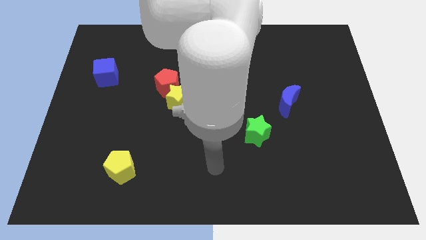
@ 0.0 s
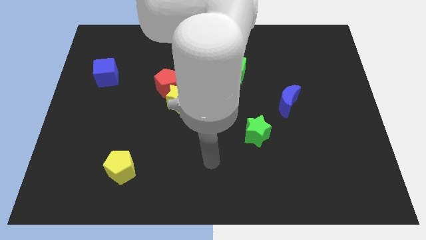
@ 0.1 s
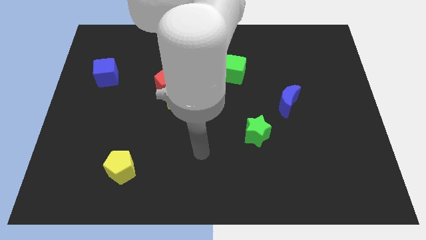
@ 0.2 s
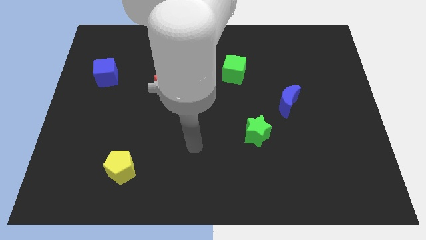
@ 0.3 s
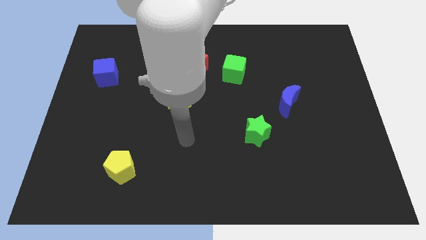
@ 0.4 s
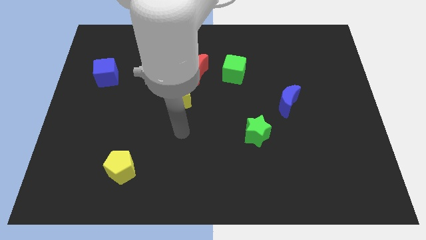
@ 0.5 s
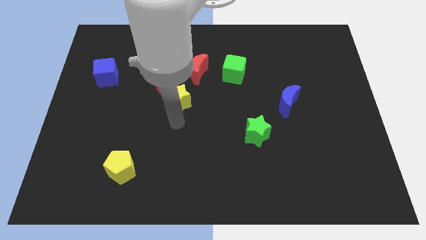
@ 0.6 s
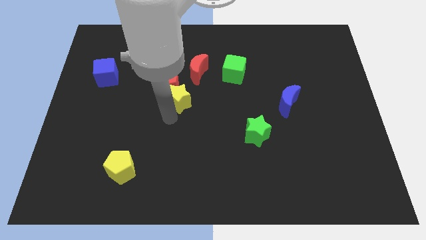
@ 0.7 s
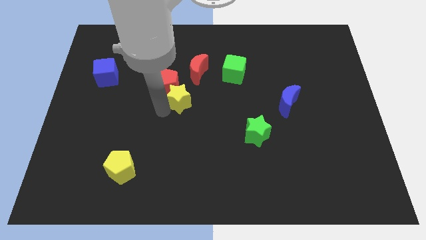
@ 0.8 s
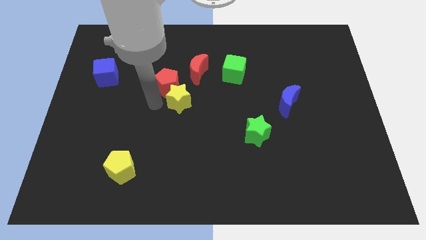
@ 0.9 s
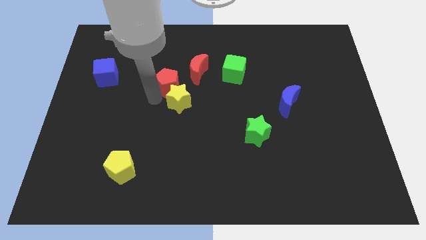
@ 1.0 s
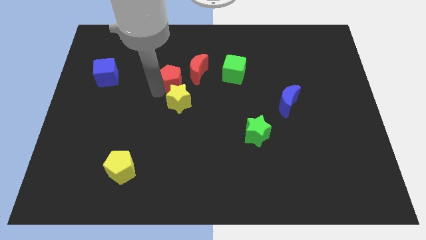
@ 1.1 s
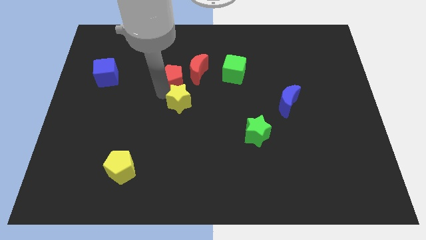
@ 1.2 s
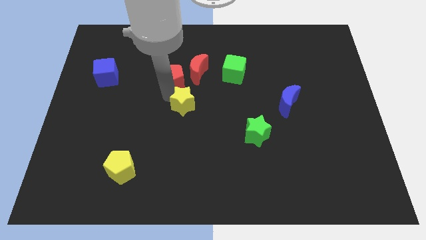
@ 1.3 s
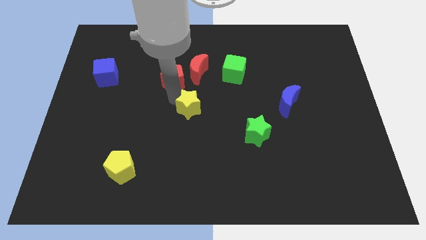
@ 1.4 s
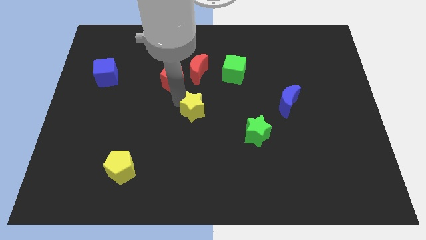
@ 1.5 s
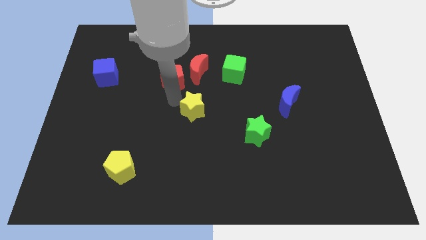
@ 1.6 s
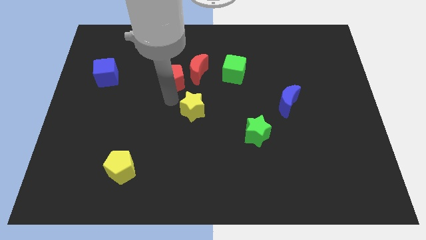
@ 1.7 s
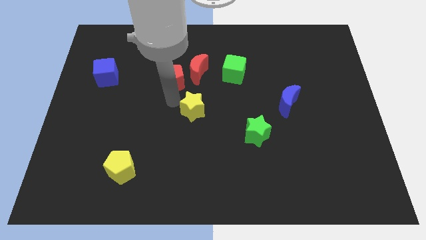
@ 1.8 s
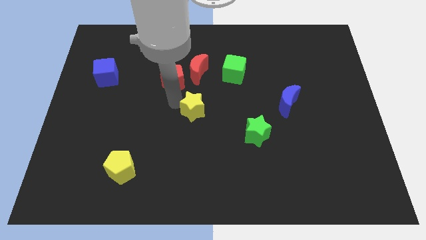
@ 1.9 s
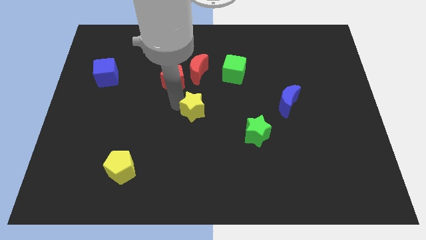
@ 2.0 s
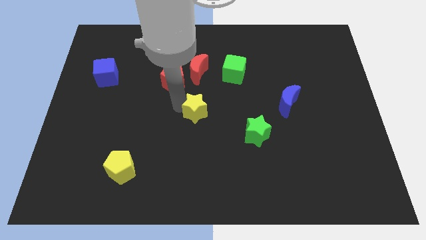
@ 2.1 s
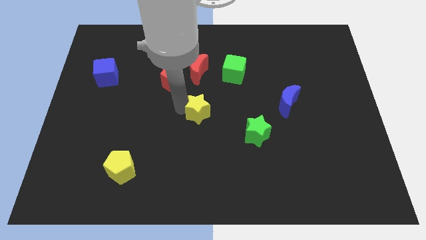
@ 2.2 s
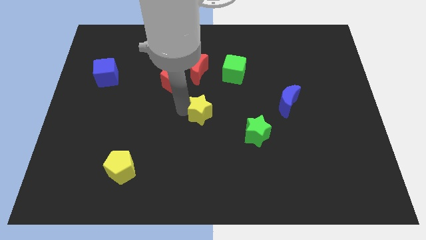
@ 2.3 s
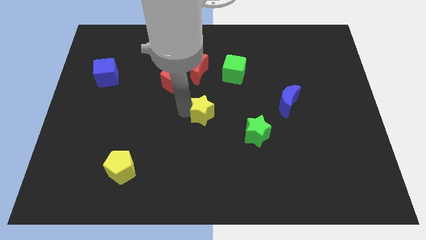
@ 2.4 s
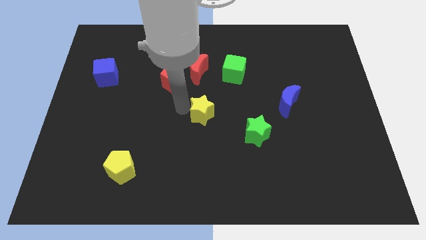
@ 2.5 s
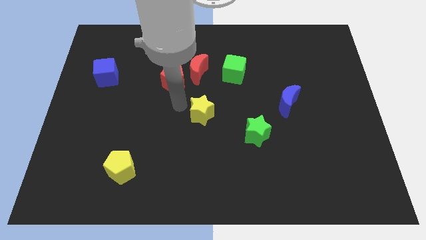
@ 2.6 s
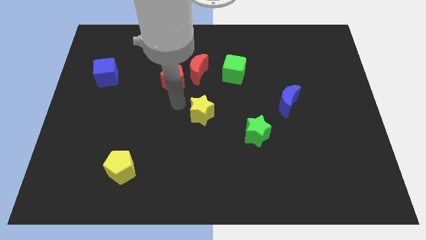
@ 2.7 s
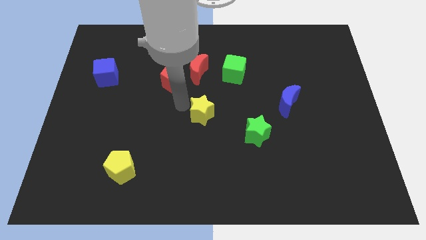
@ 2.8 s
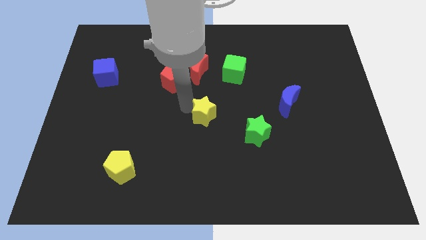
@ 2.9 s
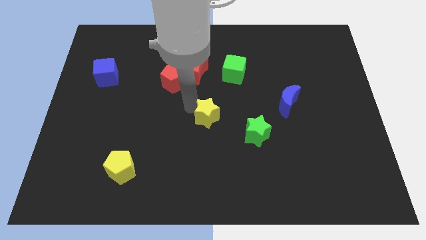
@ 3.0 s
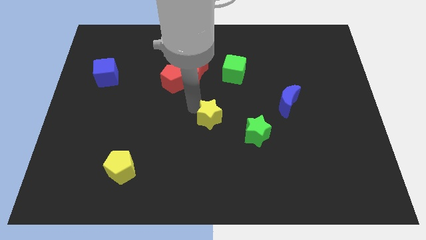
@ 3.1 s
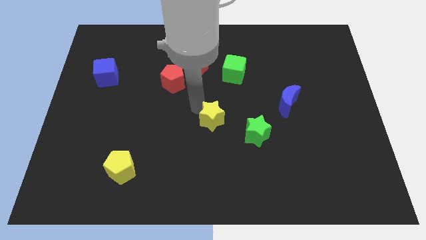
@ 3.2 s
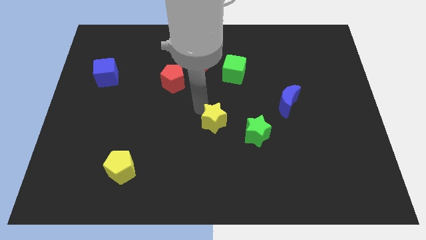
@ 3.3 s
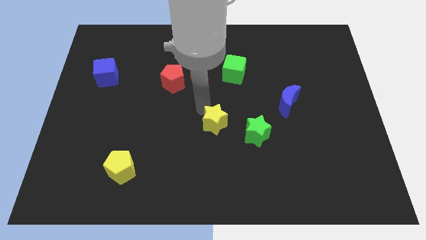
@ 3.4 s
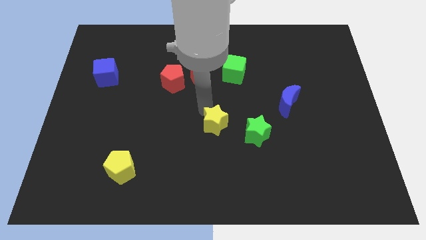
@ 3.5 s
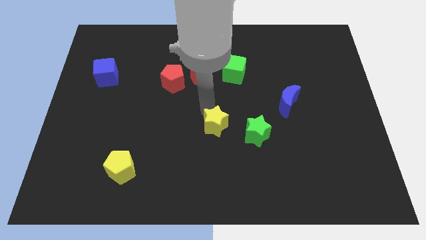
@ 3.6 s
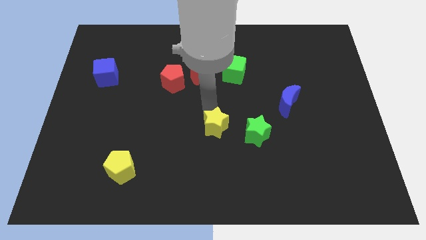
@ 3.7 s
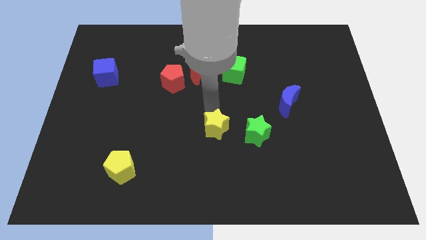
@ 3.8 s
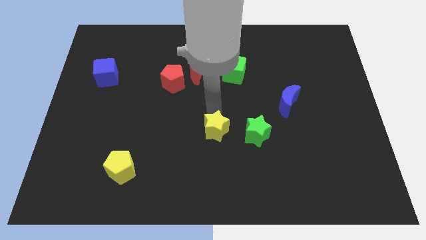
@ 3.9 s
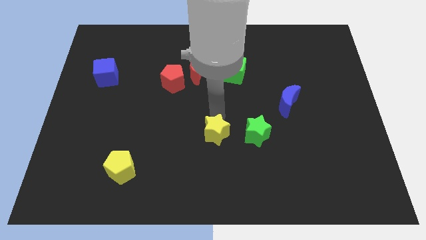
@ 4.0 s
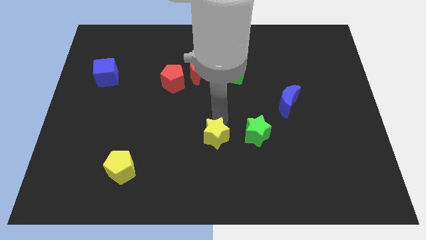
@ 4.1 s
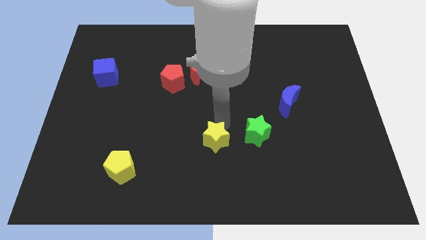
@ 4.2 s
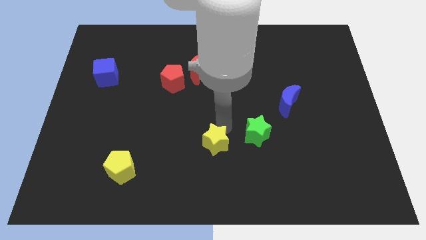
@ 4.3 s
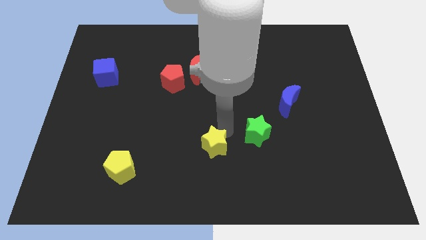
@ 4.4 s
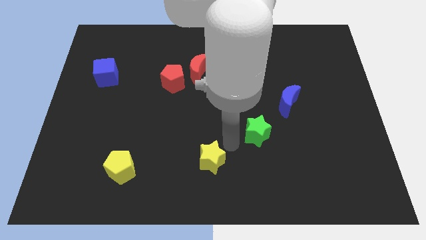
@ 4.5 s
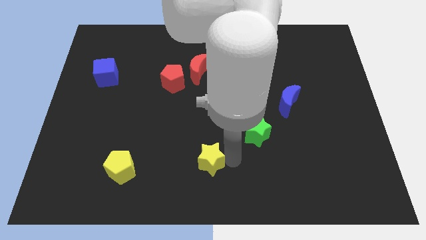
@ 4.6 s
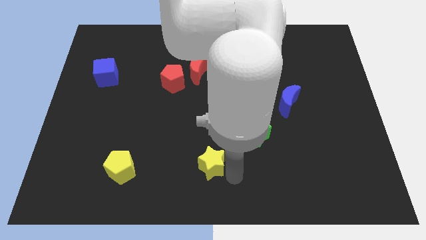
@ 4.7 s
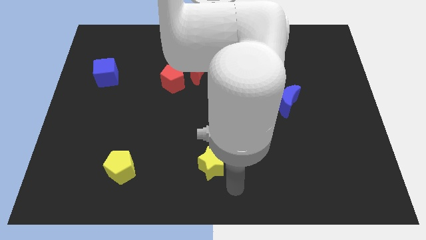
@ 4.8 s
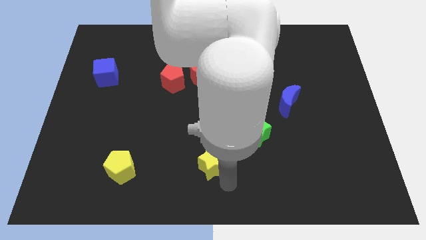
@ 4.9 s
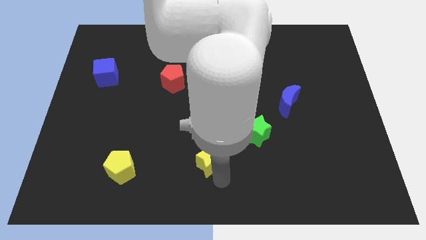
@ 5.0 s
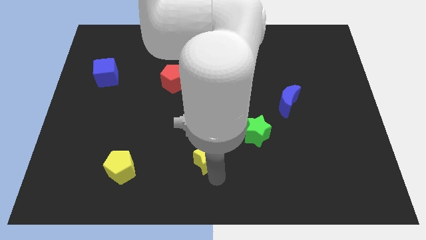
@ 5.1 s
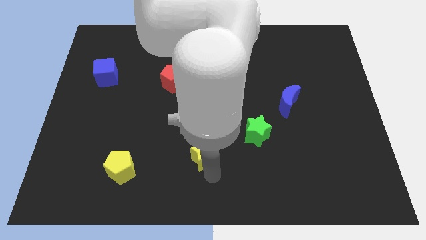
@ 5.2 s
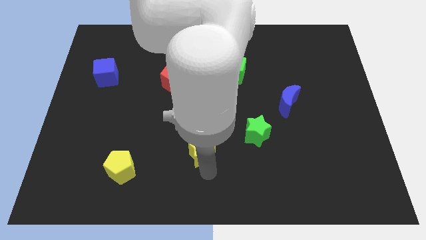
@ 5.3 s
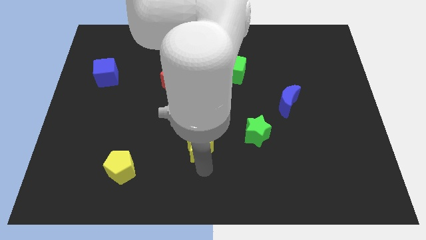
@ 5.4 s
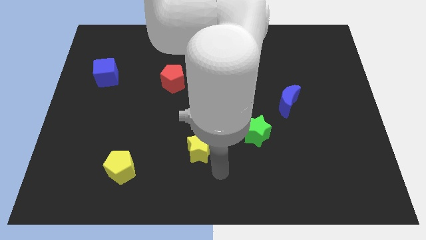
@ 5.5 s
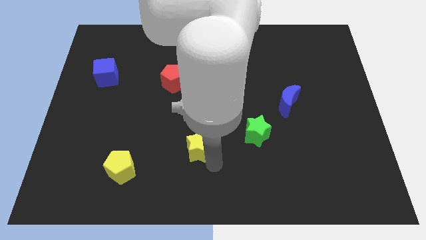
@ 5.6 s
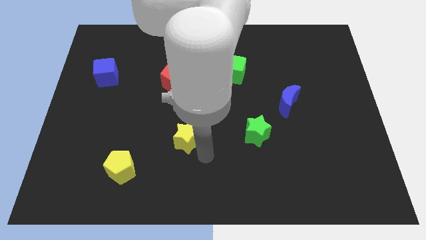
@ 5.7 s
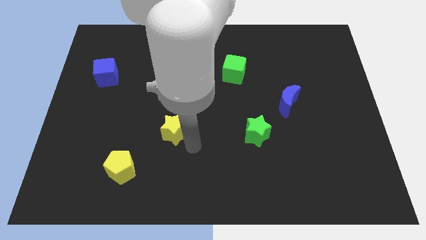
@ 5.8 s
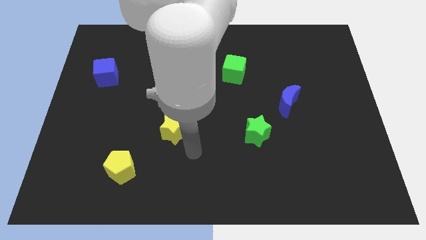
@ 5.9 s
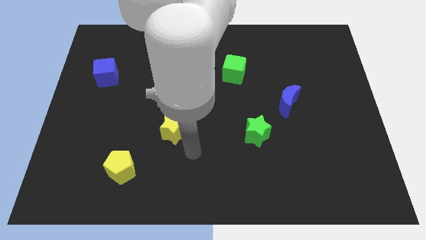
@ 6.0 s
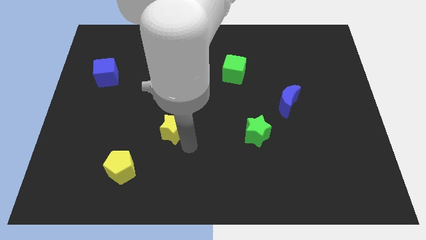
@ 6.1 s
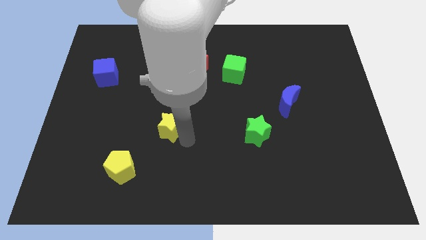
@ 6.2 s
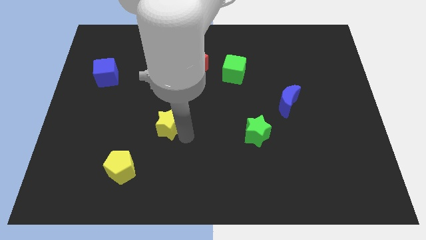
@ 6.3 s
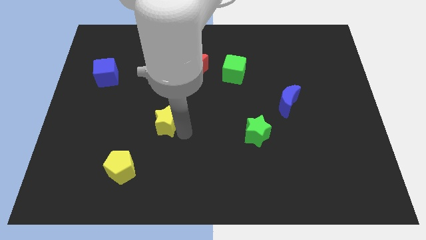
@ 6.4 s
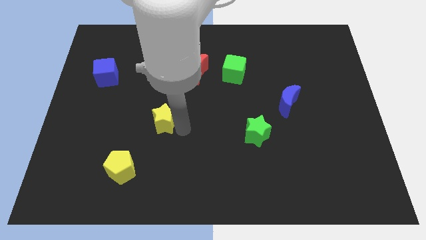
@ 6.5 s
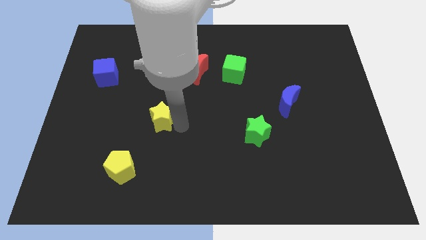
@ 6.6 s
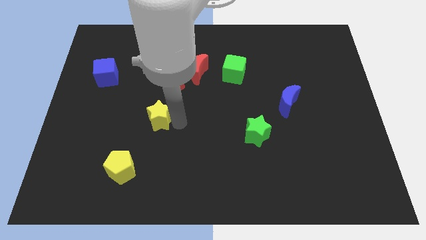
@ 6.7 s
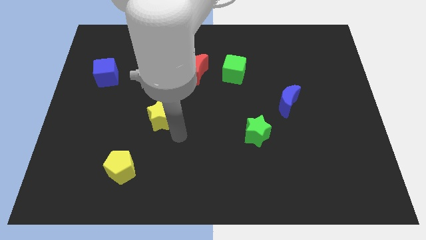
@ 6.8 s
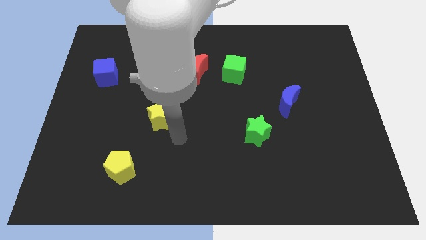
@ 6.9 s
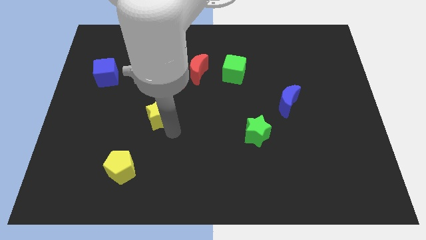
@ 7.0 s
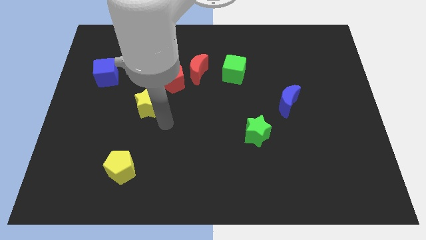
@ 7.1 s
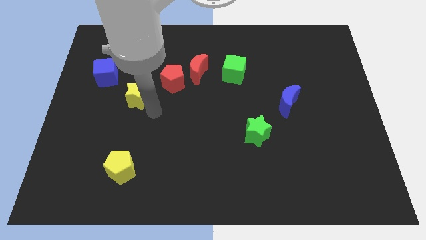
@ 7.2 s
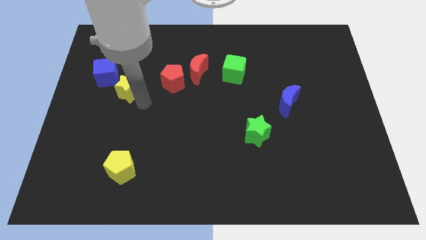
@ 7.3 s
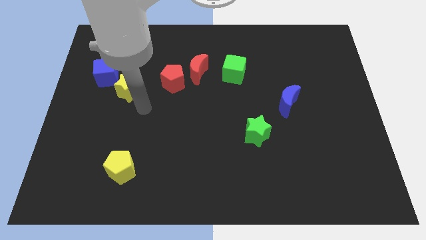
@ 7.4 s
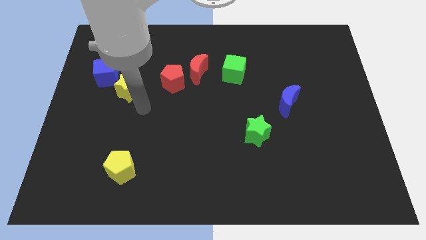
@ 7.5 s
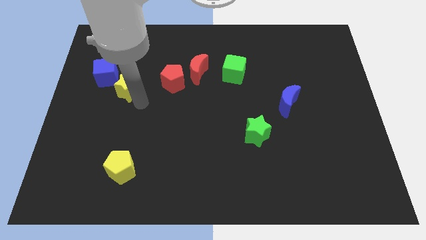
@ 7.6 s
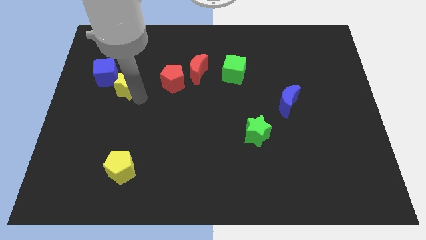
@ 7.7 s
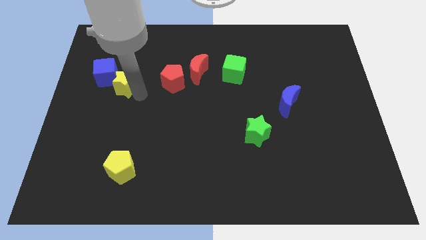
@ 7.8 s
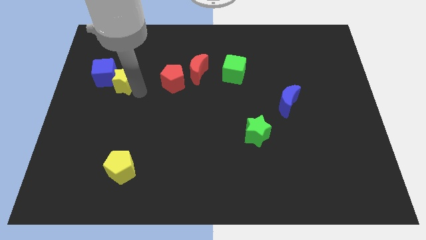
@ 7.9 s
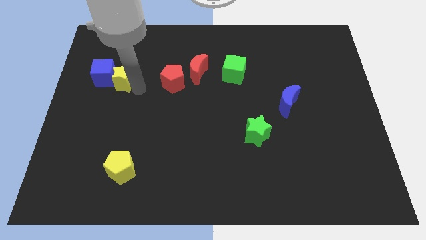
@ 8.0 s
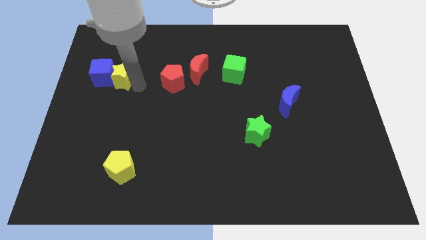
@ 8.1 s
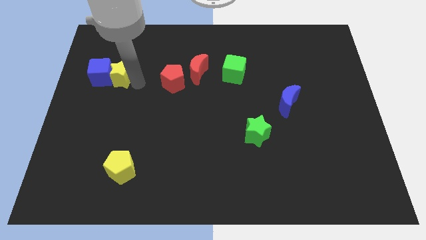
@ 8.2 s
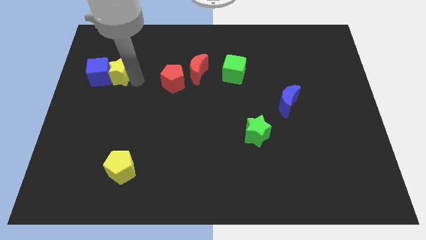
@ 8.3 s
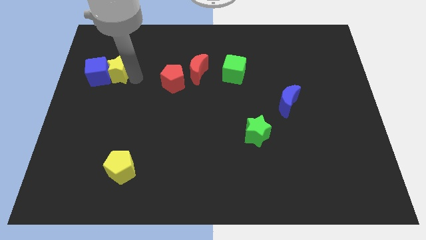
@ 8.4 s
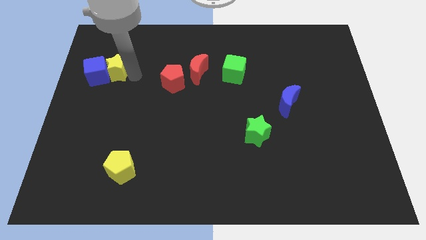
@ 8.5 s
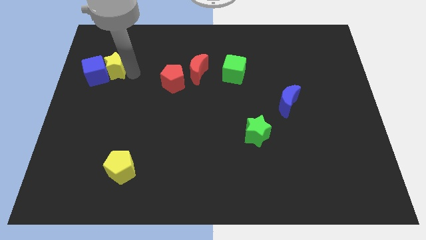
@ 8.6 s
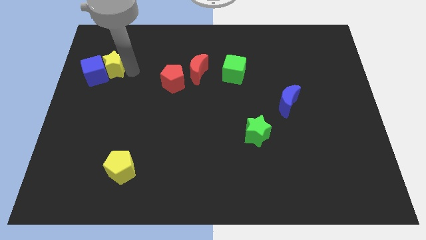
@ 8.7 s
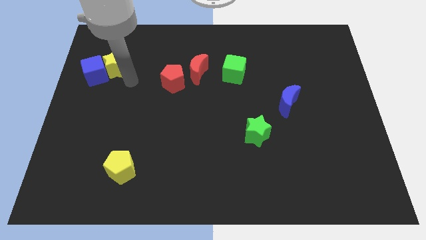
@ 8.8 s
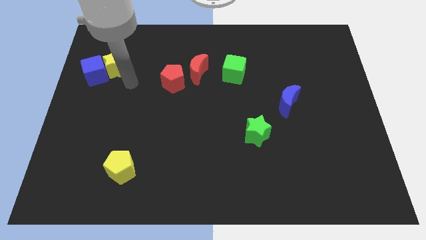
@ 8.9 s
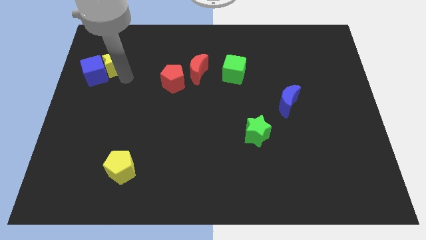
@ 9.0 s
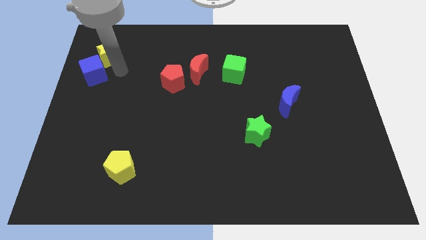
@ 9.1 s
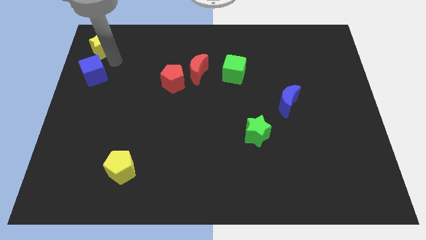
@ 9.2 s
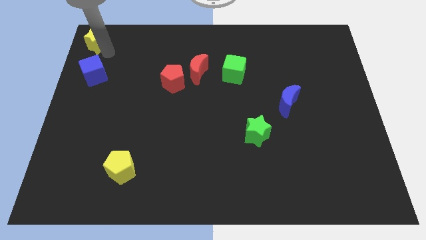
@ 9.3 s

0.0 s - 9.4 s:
move the yellow star to the top left corner
